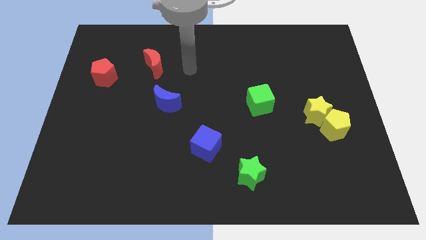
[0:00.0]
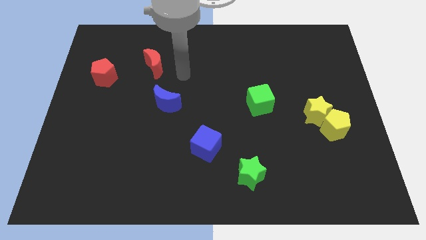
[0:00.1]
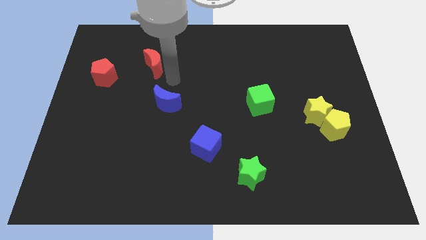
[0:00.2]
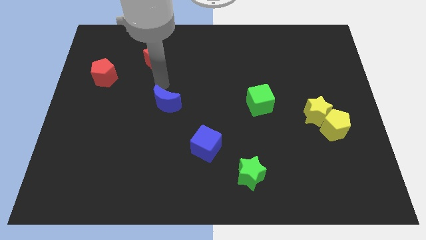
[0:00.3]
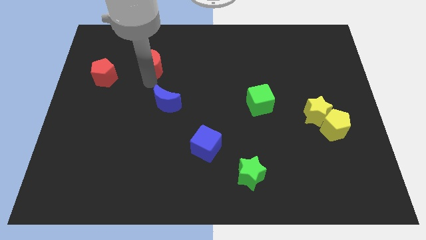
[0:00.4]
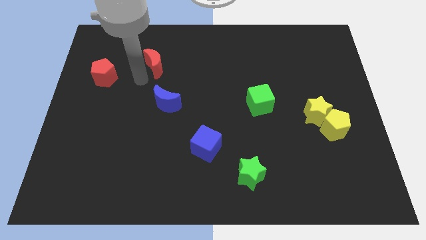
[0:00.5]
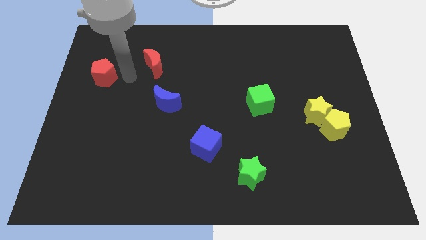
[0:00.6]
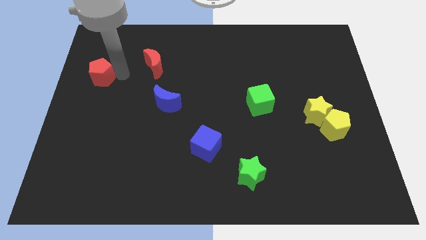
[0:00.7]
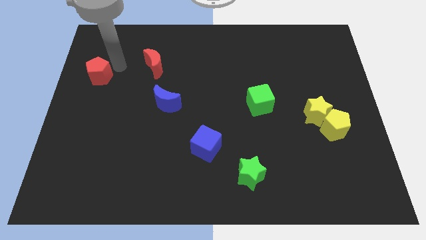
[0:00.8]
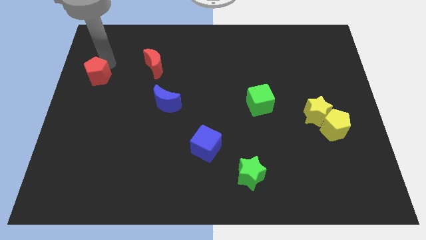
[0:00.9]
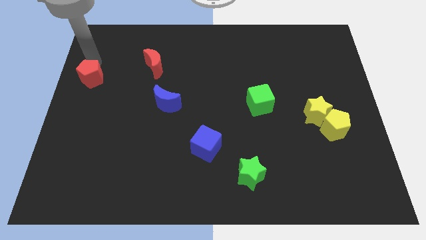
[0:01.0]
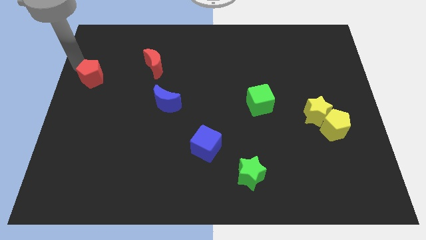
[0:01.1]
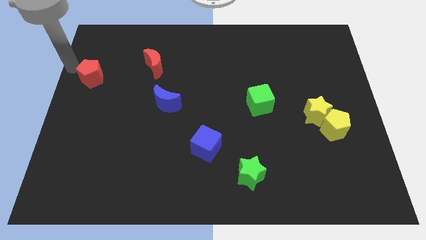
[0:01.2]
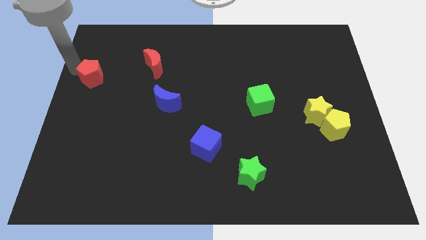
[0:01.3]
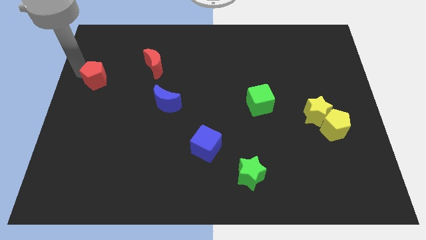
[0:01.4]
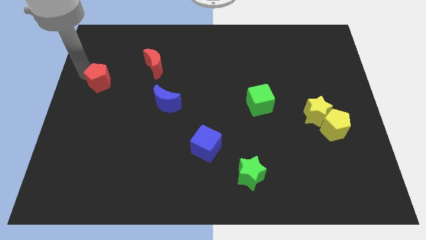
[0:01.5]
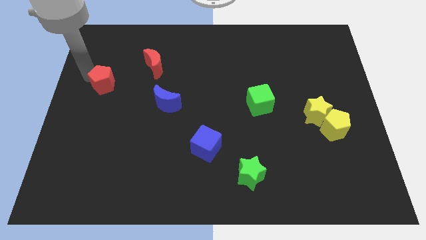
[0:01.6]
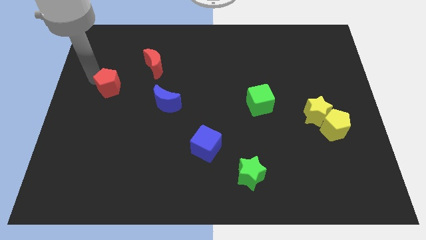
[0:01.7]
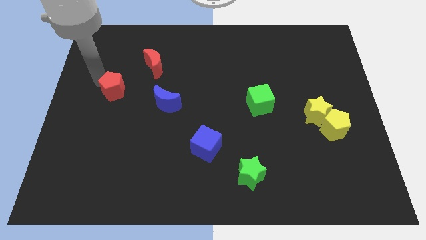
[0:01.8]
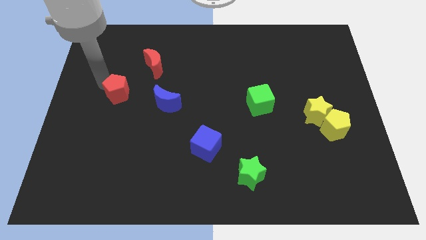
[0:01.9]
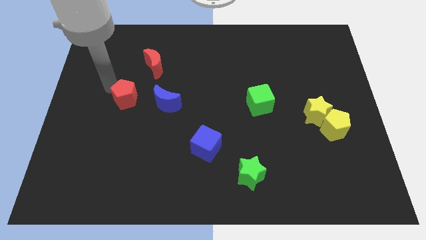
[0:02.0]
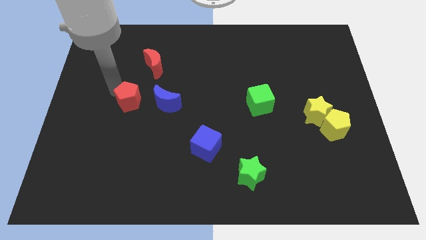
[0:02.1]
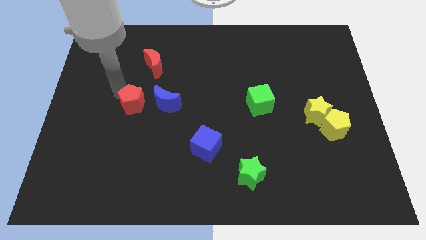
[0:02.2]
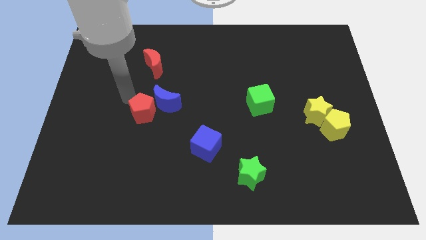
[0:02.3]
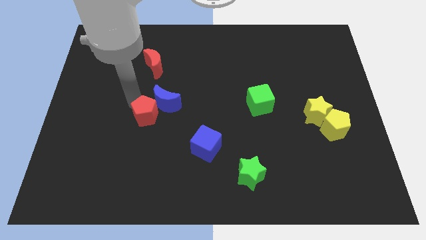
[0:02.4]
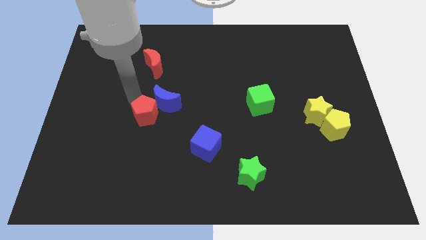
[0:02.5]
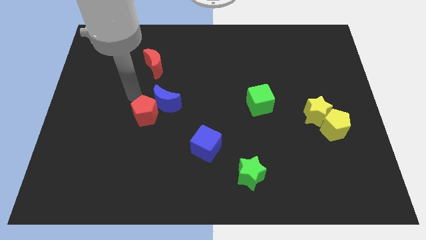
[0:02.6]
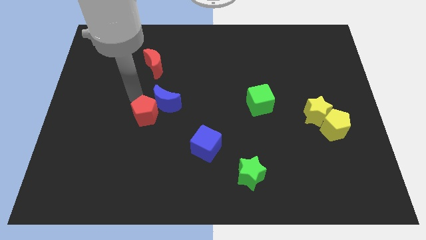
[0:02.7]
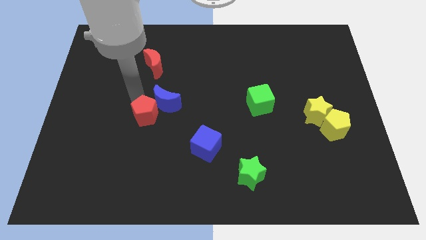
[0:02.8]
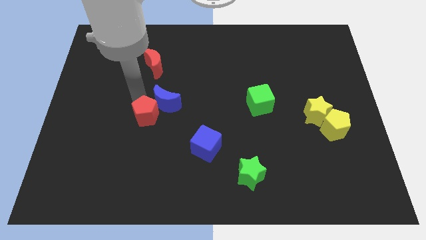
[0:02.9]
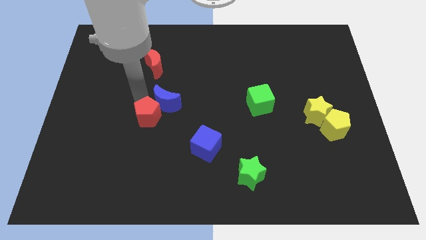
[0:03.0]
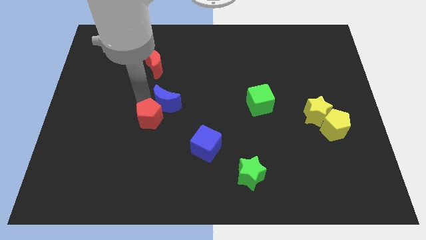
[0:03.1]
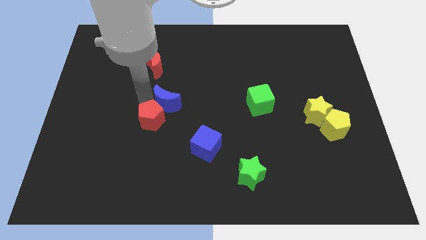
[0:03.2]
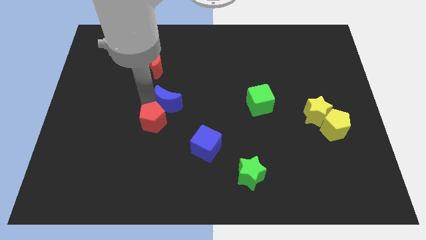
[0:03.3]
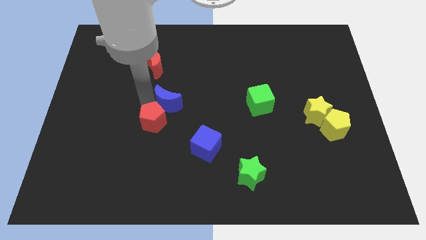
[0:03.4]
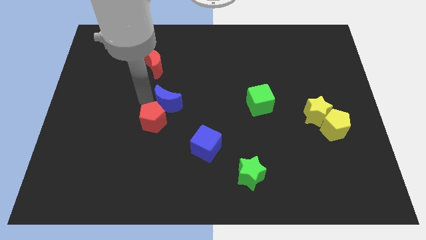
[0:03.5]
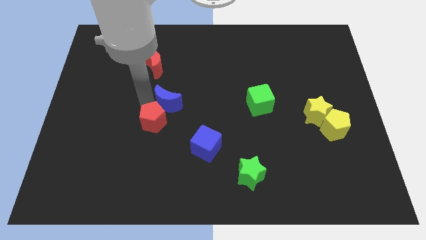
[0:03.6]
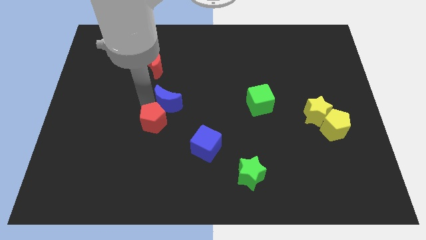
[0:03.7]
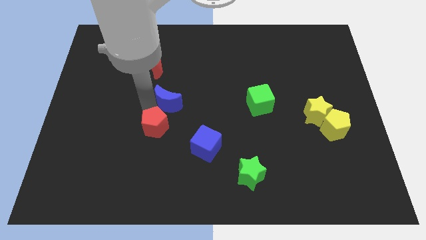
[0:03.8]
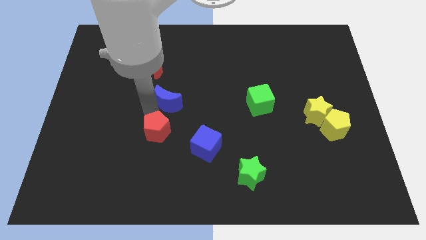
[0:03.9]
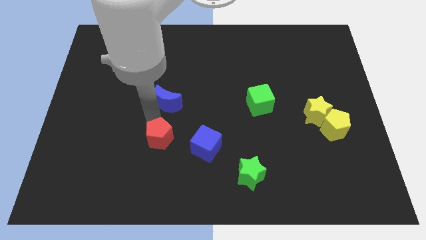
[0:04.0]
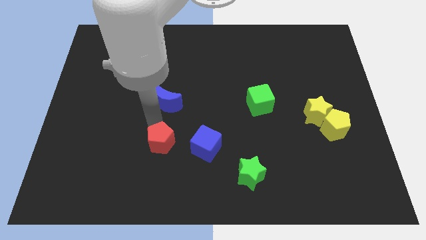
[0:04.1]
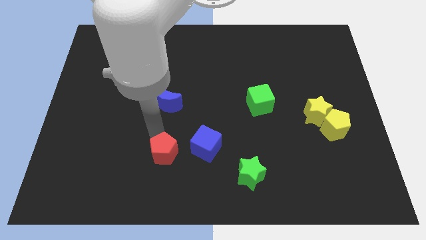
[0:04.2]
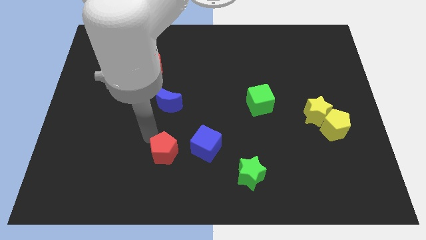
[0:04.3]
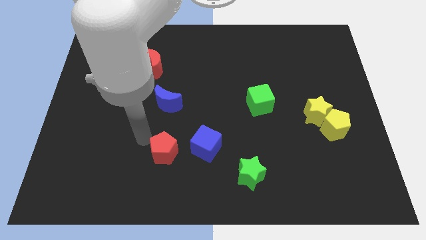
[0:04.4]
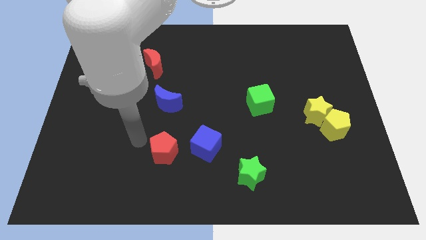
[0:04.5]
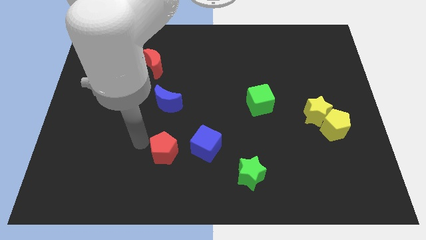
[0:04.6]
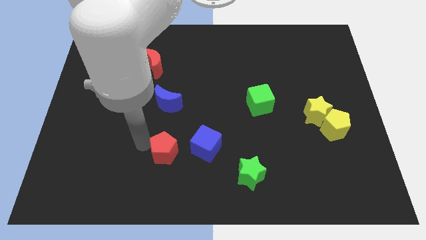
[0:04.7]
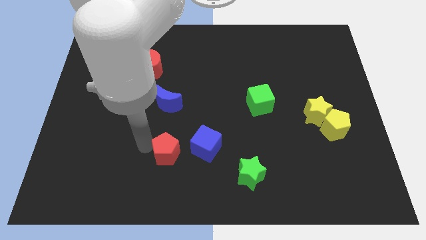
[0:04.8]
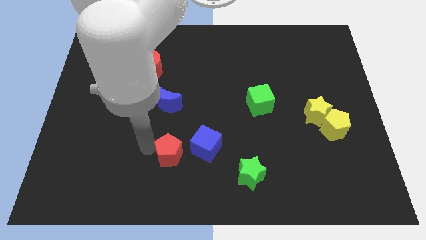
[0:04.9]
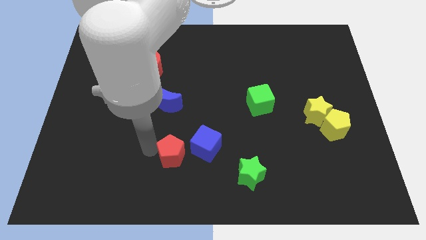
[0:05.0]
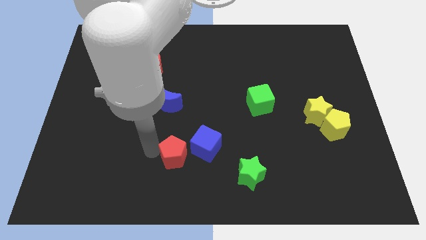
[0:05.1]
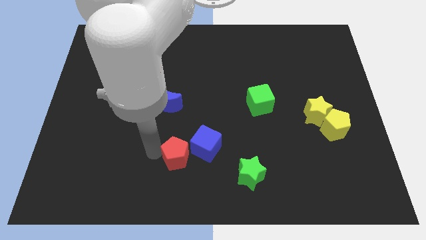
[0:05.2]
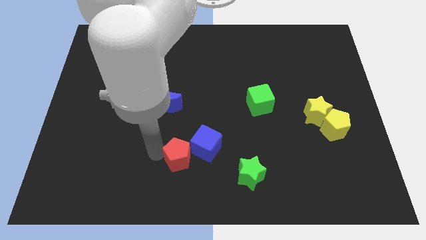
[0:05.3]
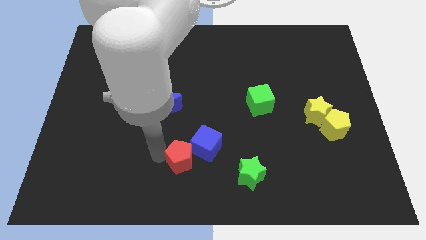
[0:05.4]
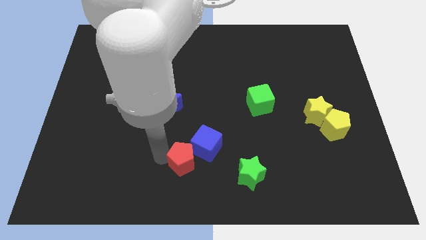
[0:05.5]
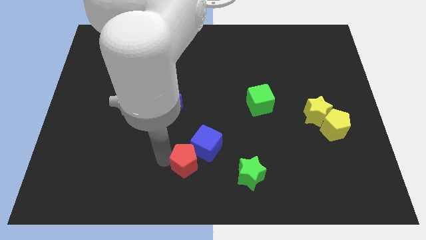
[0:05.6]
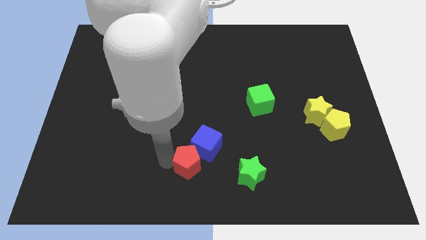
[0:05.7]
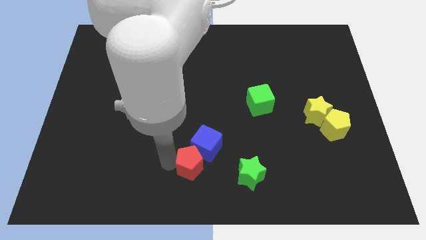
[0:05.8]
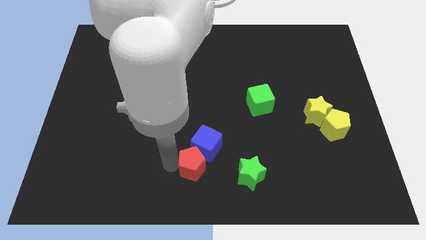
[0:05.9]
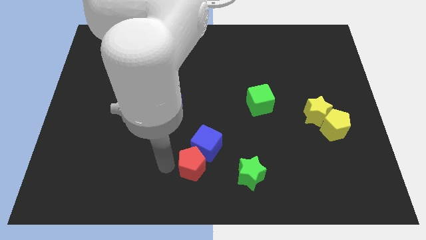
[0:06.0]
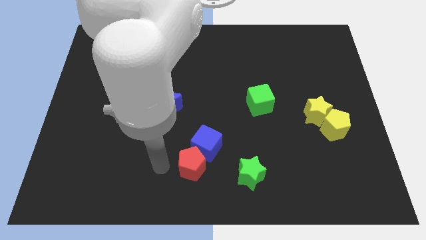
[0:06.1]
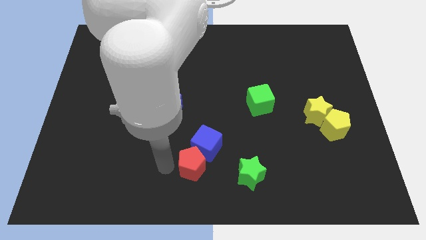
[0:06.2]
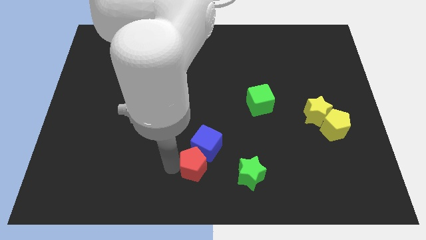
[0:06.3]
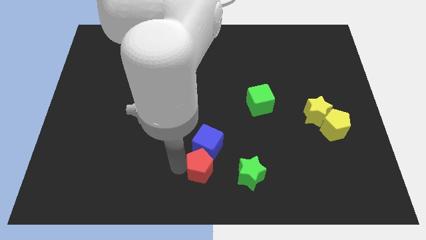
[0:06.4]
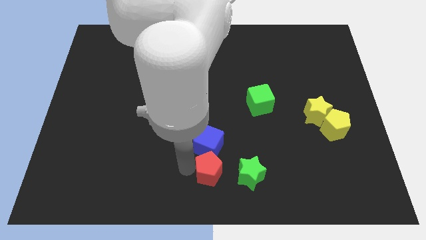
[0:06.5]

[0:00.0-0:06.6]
move the red pentagon to the bottom right of the blue cube

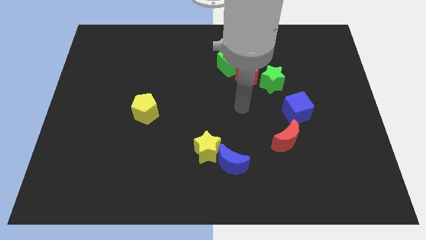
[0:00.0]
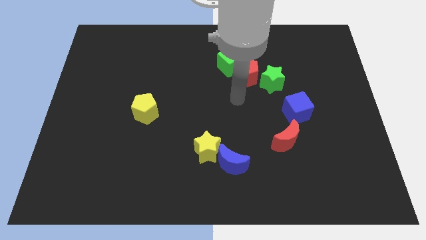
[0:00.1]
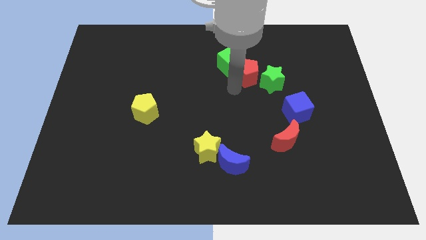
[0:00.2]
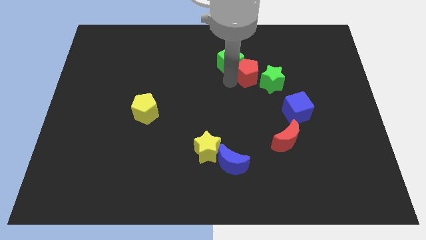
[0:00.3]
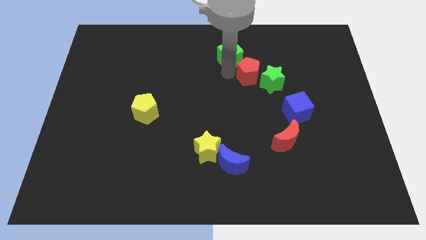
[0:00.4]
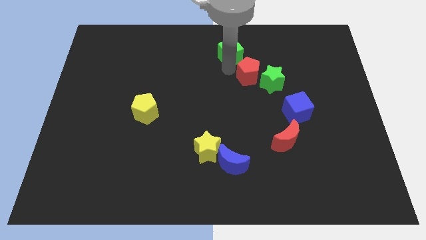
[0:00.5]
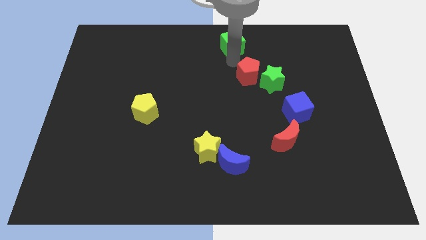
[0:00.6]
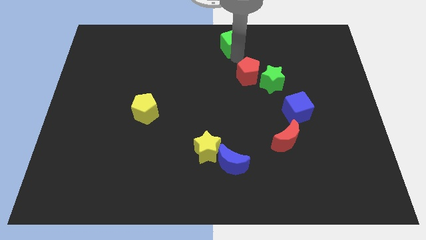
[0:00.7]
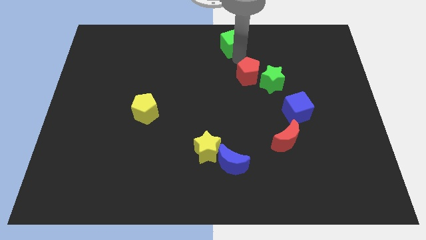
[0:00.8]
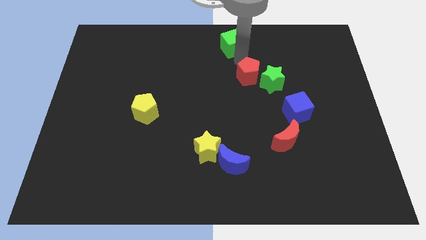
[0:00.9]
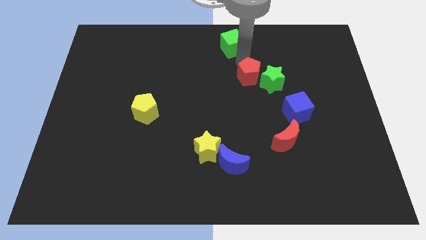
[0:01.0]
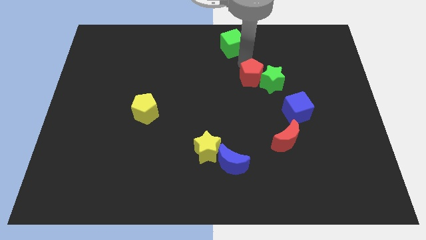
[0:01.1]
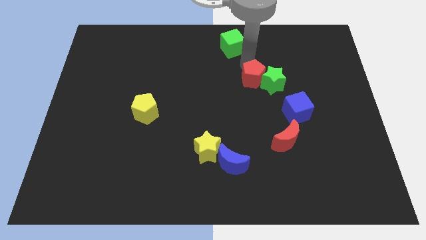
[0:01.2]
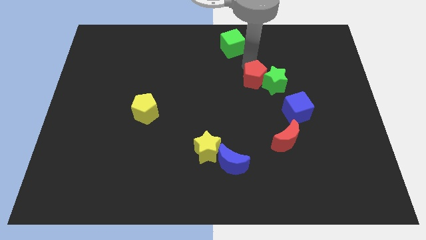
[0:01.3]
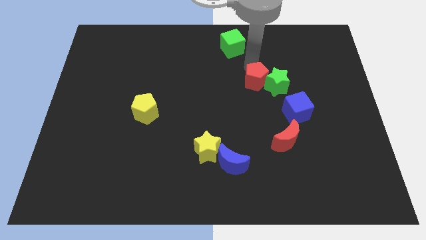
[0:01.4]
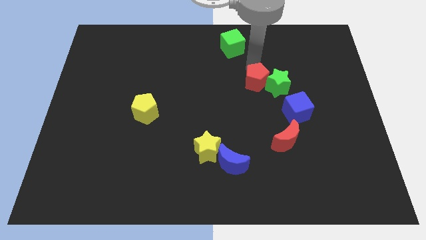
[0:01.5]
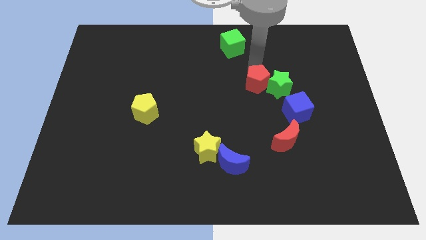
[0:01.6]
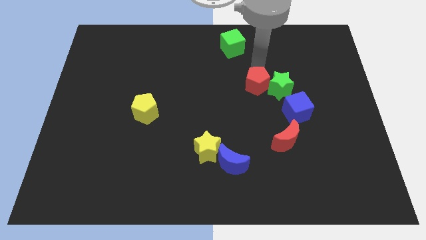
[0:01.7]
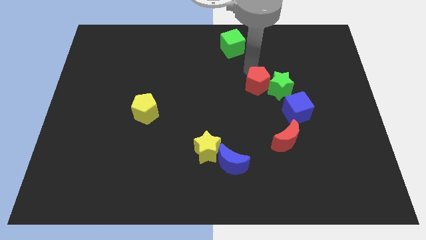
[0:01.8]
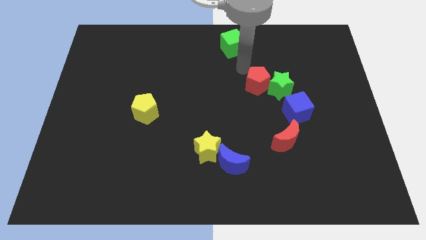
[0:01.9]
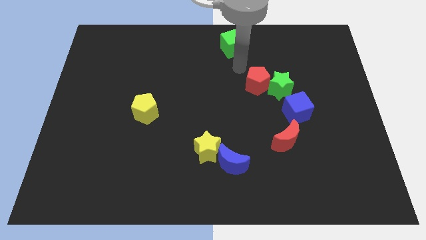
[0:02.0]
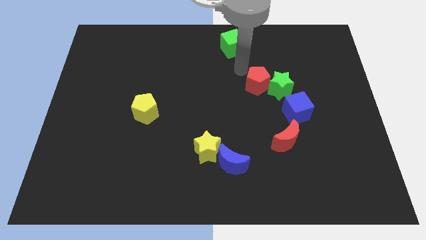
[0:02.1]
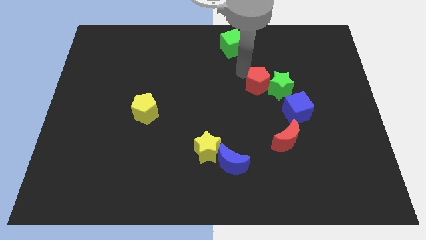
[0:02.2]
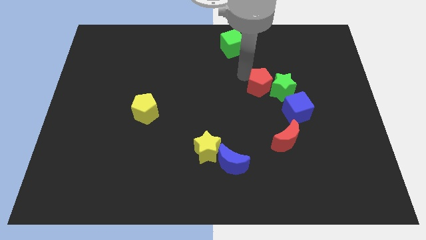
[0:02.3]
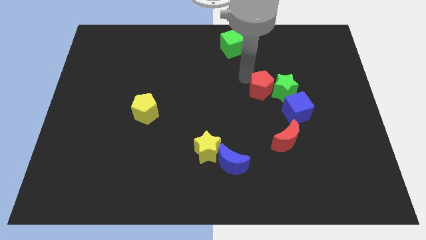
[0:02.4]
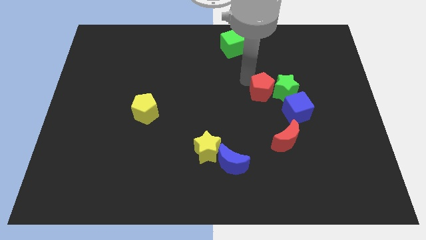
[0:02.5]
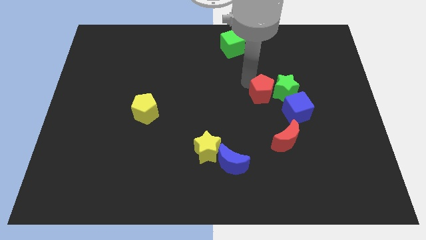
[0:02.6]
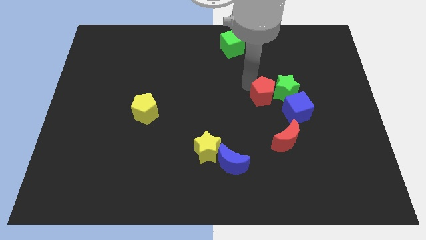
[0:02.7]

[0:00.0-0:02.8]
push the red pentagon above the red moon
